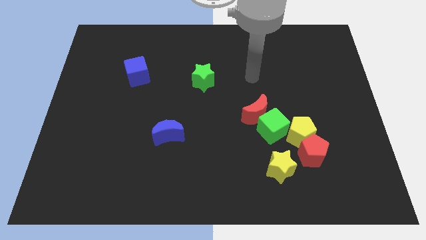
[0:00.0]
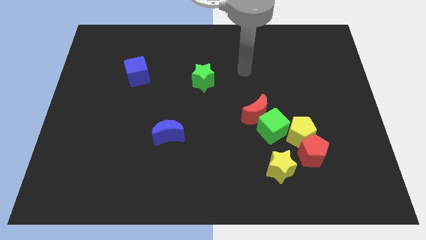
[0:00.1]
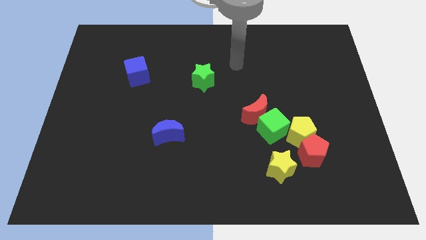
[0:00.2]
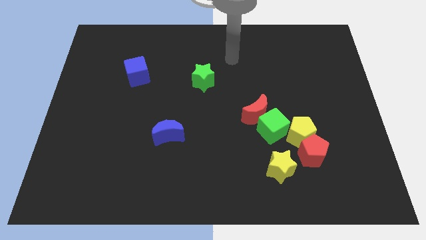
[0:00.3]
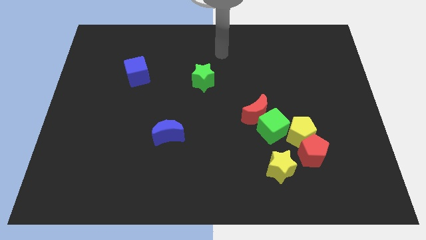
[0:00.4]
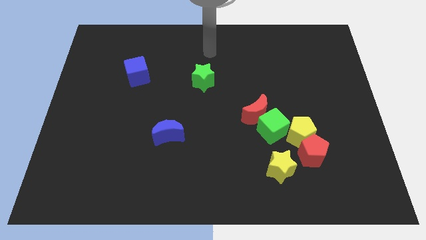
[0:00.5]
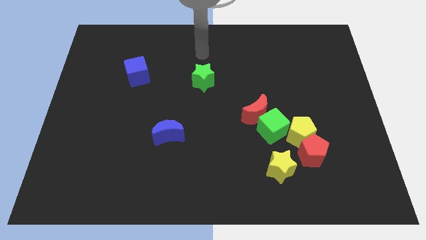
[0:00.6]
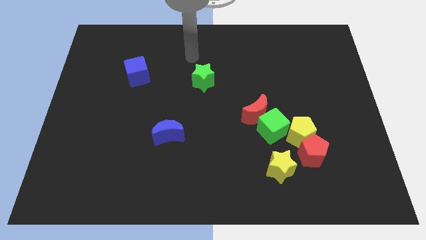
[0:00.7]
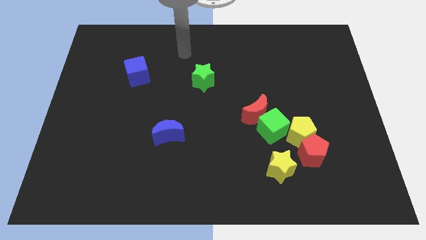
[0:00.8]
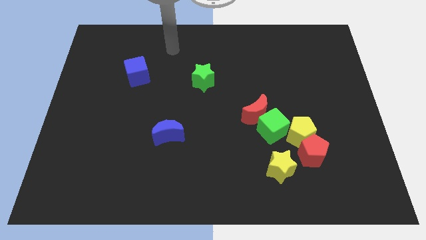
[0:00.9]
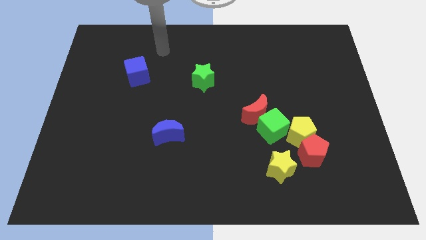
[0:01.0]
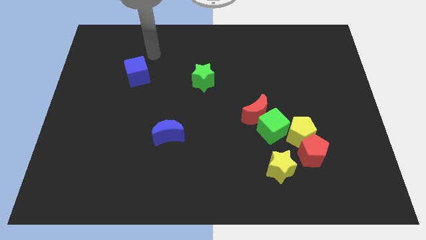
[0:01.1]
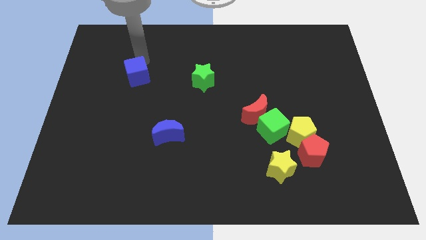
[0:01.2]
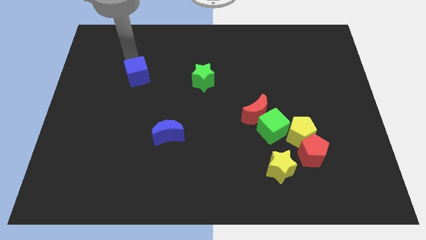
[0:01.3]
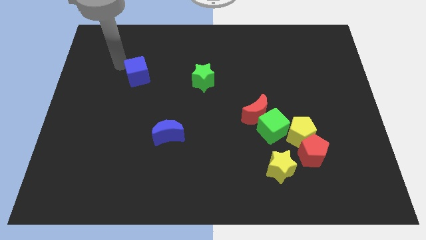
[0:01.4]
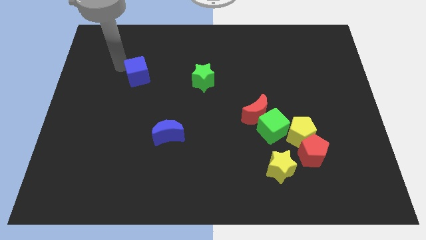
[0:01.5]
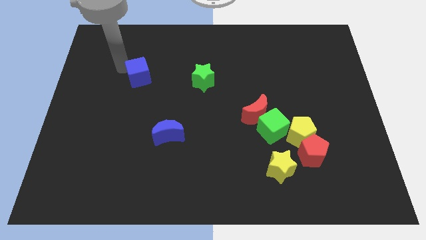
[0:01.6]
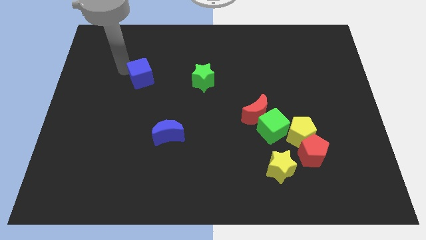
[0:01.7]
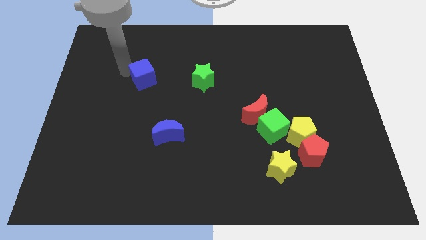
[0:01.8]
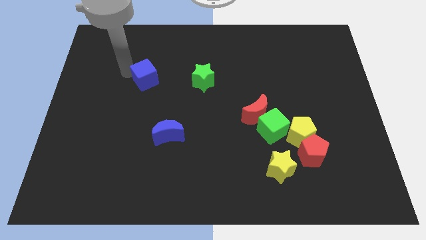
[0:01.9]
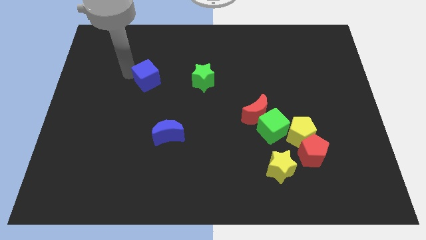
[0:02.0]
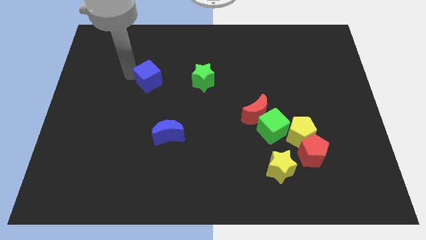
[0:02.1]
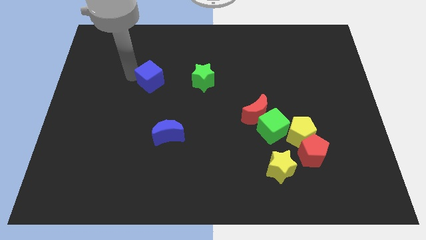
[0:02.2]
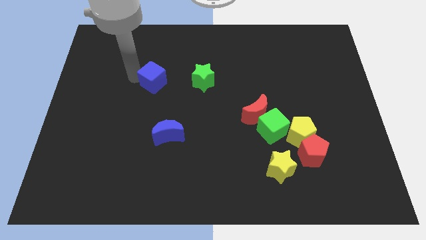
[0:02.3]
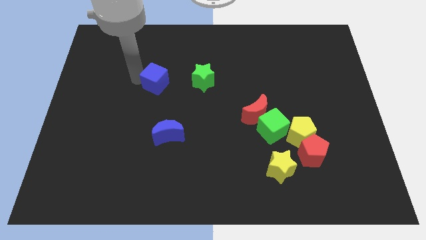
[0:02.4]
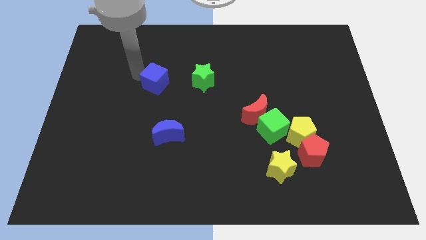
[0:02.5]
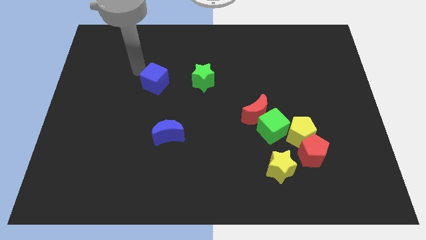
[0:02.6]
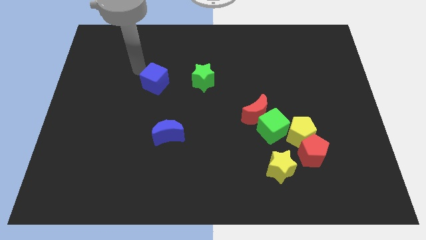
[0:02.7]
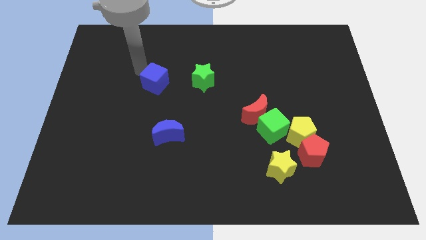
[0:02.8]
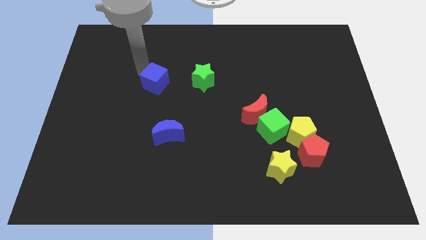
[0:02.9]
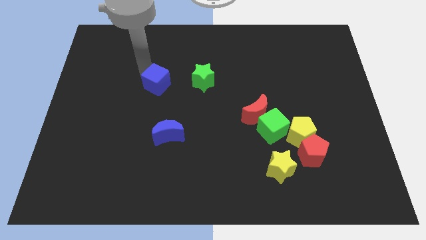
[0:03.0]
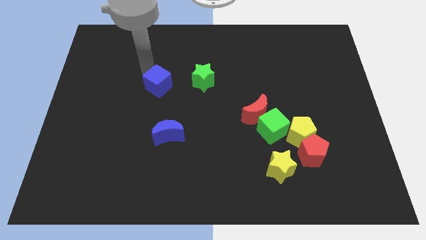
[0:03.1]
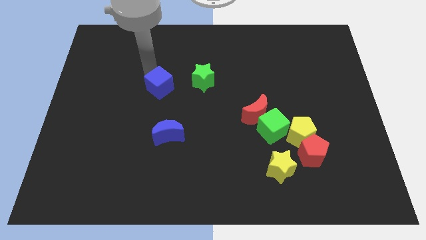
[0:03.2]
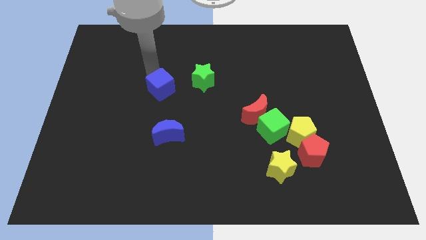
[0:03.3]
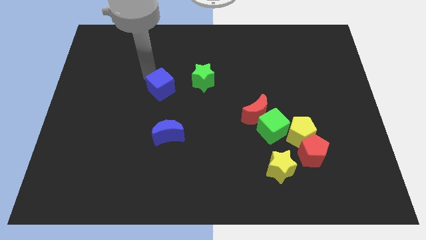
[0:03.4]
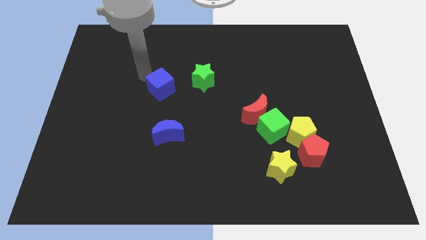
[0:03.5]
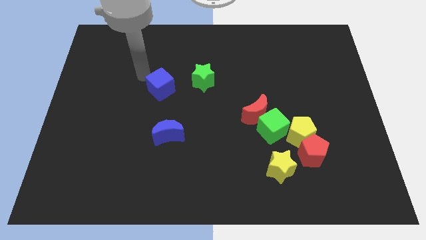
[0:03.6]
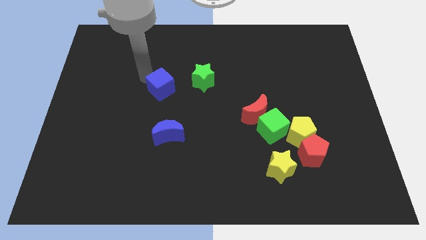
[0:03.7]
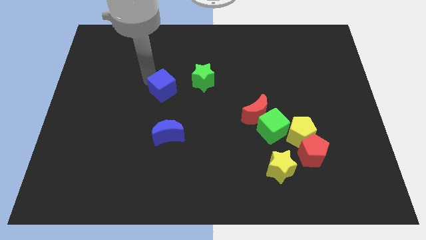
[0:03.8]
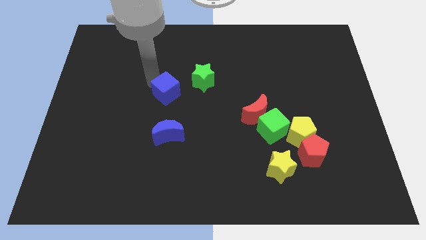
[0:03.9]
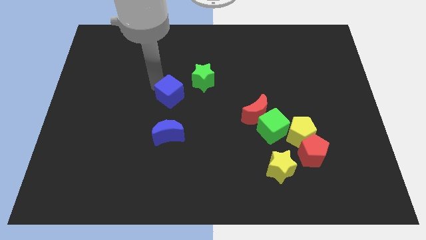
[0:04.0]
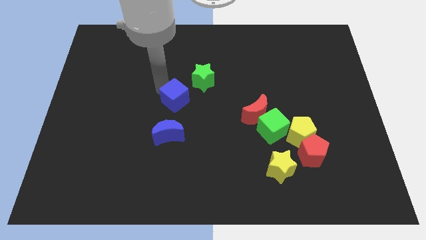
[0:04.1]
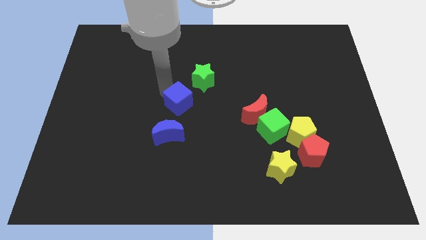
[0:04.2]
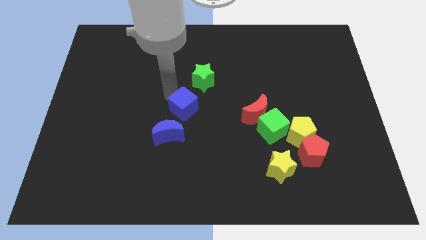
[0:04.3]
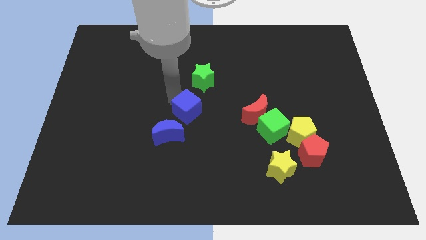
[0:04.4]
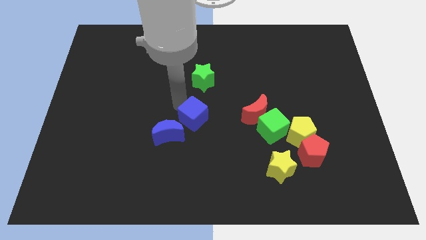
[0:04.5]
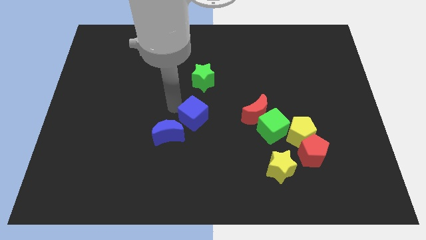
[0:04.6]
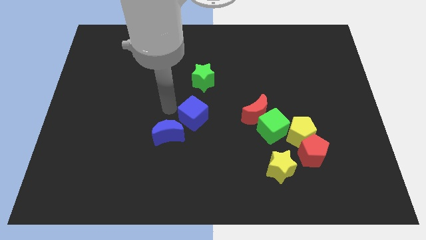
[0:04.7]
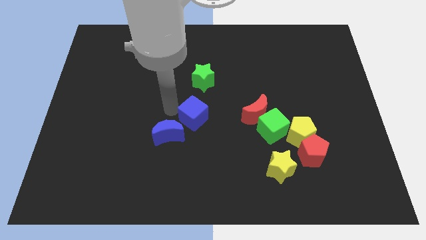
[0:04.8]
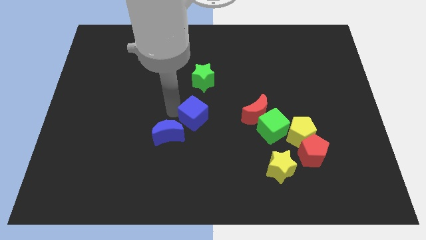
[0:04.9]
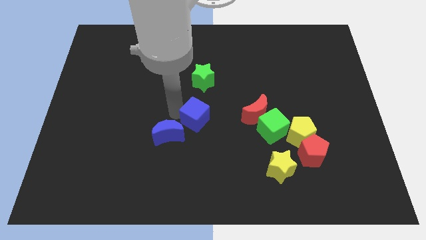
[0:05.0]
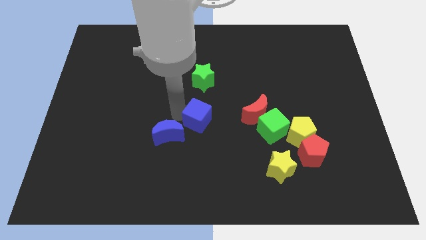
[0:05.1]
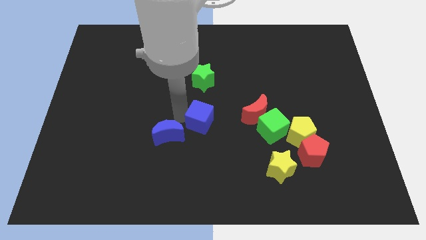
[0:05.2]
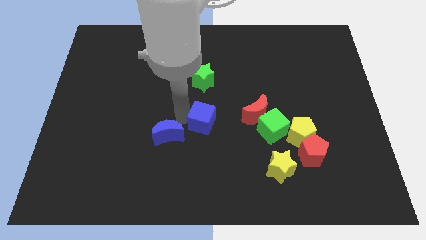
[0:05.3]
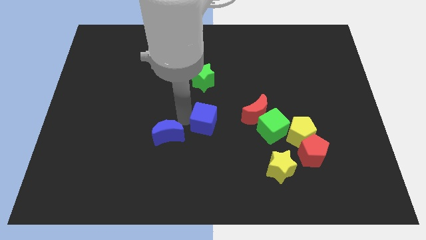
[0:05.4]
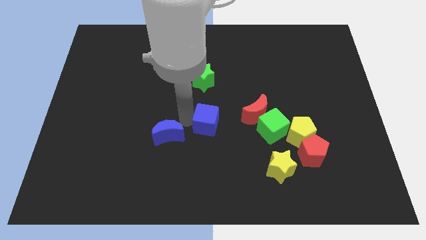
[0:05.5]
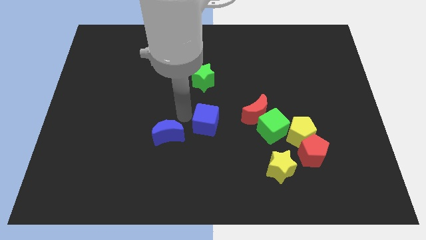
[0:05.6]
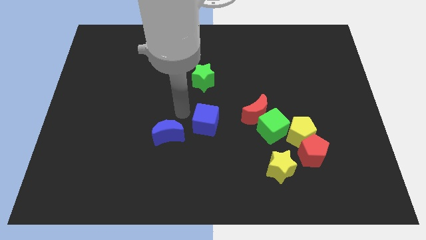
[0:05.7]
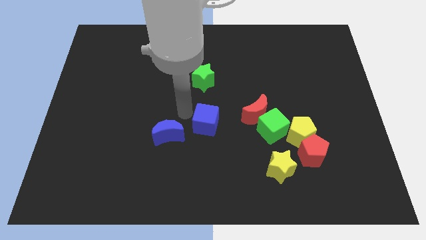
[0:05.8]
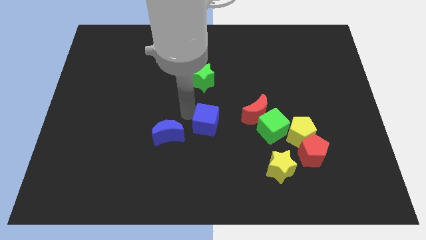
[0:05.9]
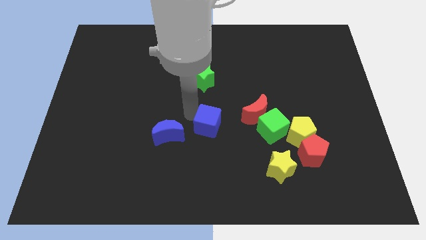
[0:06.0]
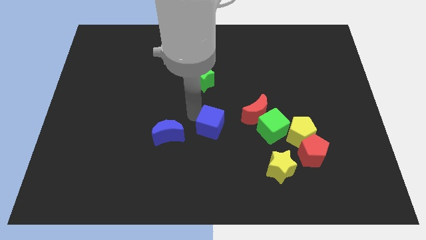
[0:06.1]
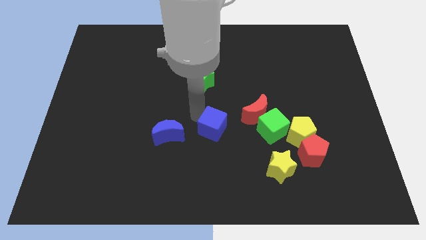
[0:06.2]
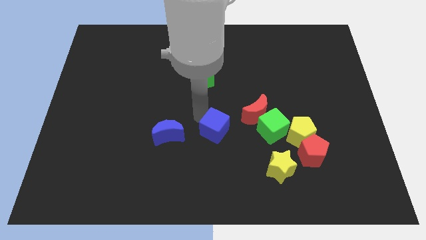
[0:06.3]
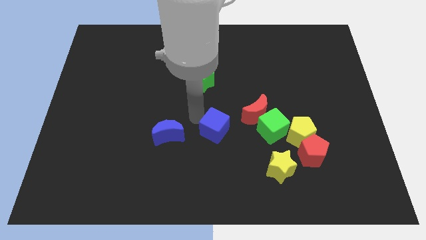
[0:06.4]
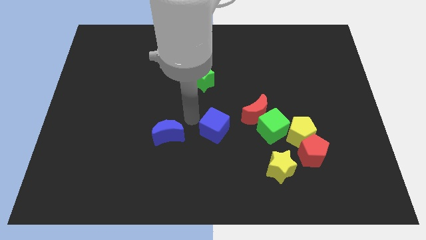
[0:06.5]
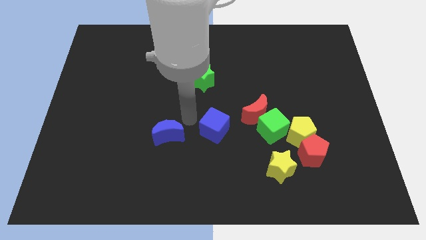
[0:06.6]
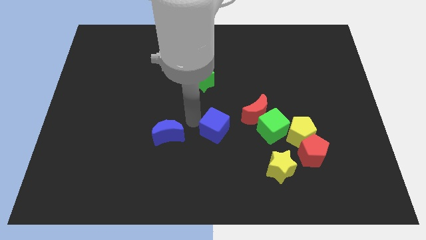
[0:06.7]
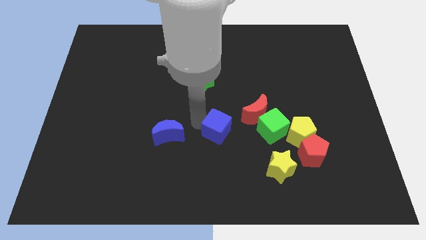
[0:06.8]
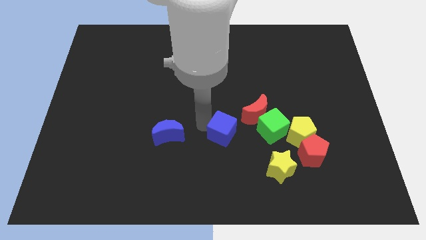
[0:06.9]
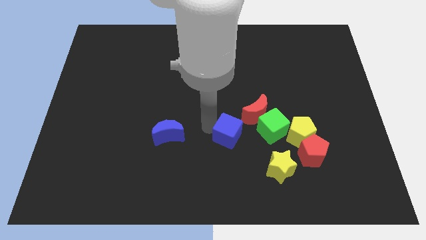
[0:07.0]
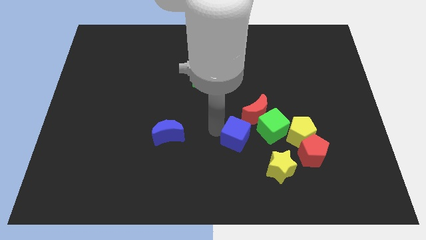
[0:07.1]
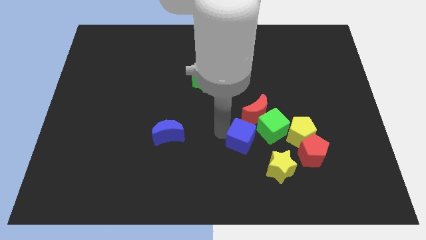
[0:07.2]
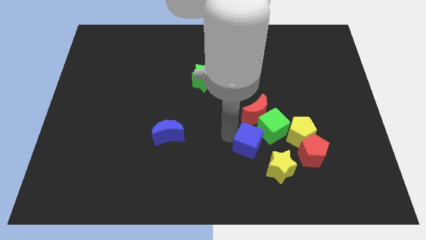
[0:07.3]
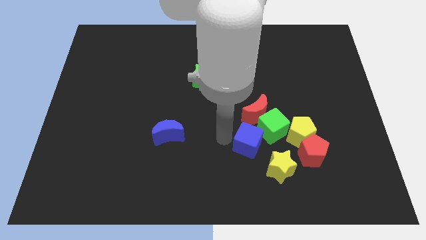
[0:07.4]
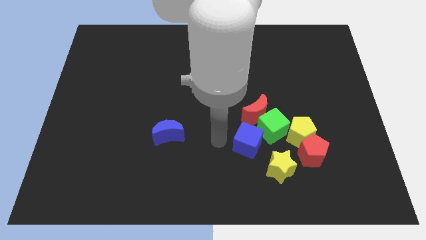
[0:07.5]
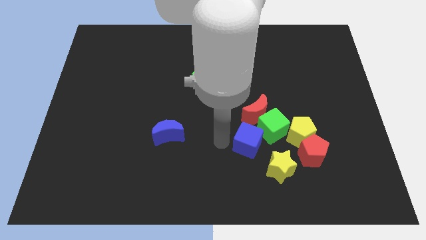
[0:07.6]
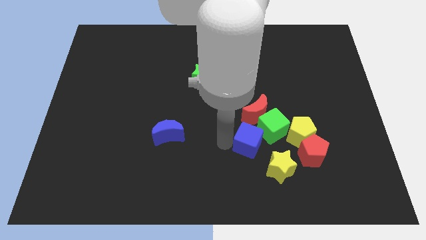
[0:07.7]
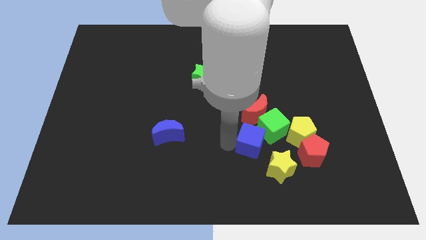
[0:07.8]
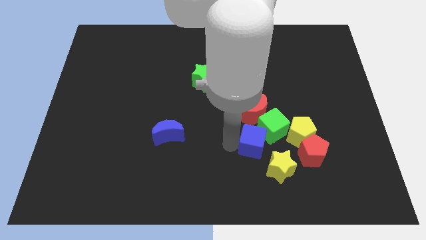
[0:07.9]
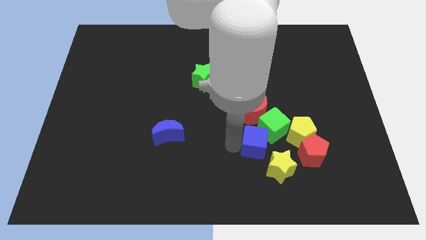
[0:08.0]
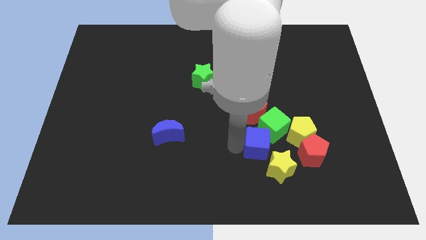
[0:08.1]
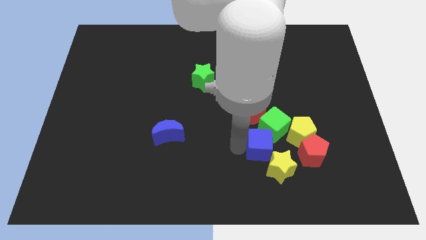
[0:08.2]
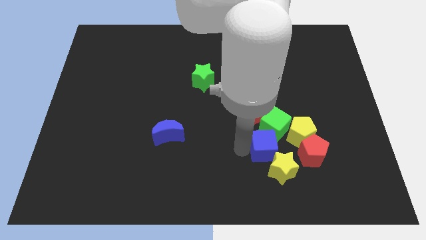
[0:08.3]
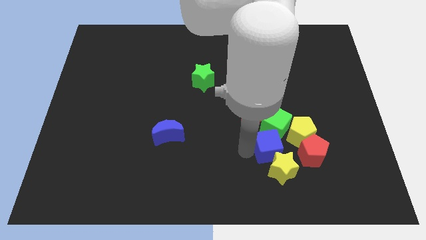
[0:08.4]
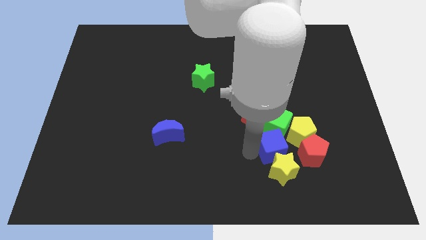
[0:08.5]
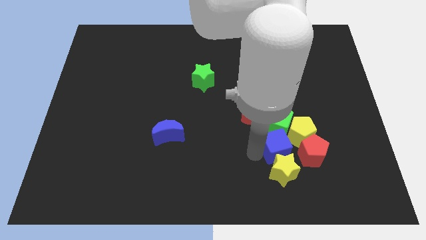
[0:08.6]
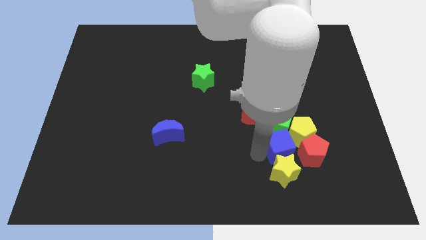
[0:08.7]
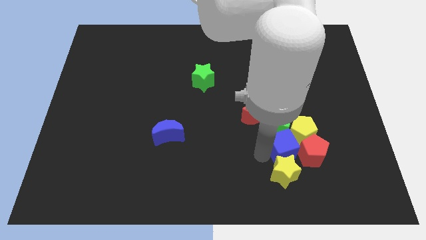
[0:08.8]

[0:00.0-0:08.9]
move the blue cube to the yellow pentagon
